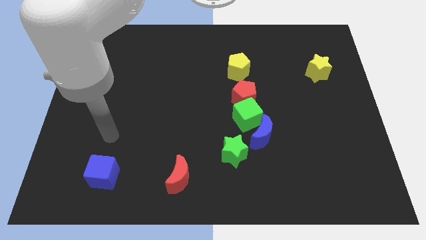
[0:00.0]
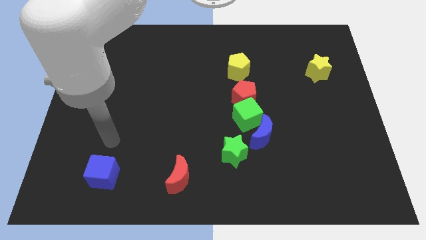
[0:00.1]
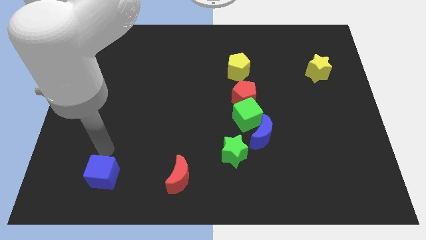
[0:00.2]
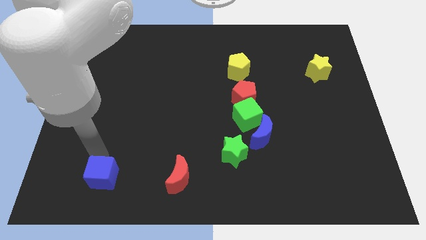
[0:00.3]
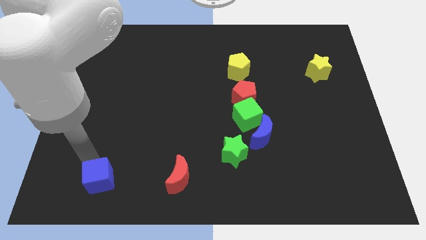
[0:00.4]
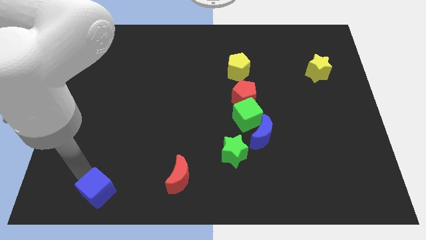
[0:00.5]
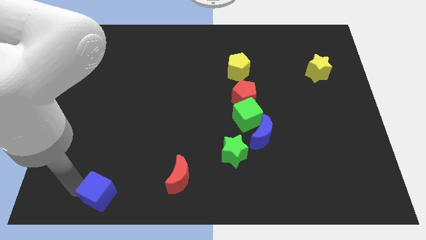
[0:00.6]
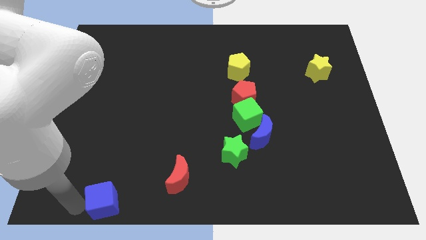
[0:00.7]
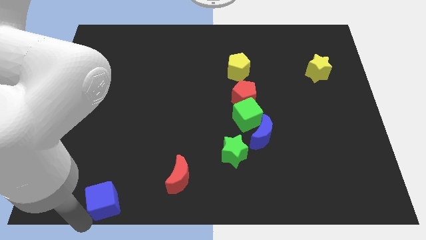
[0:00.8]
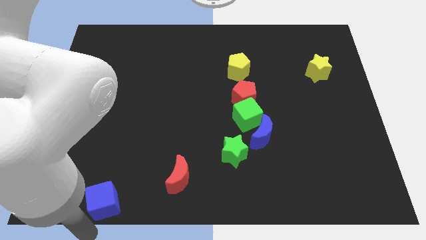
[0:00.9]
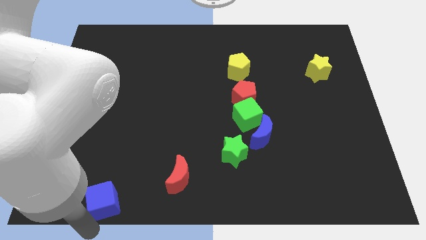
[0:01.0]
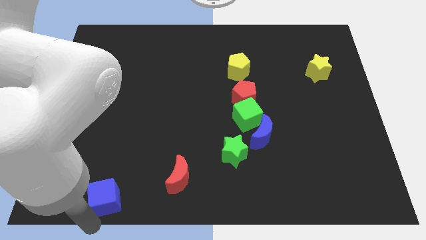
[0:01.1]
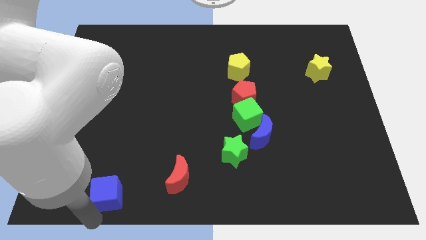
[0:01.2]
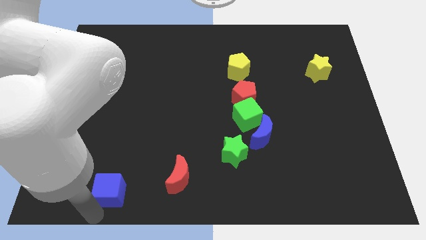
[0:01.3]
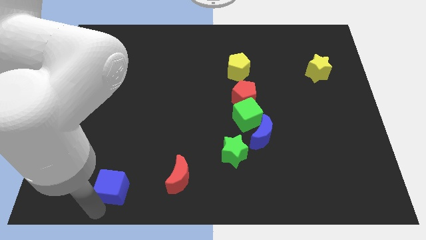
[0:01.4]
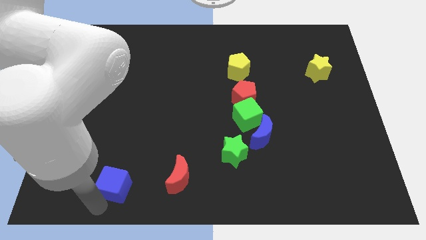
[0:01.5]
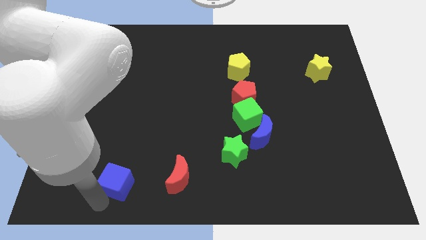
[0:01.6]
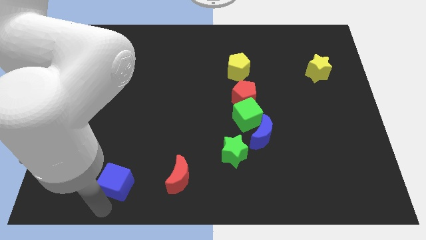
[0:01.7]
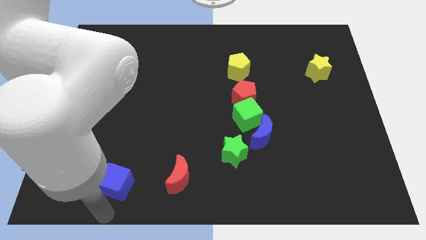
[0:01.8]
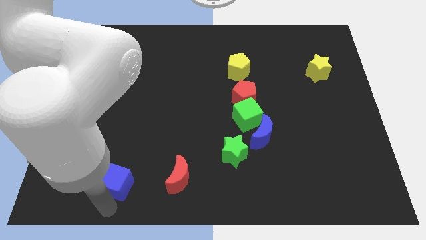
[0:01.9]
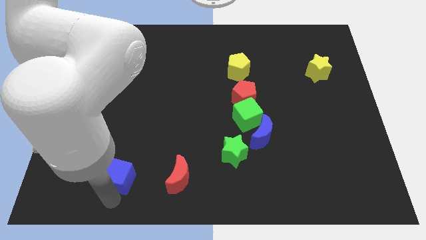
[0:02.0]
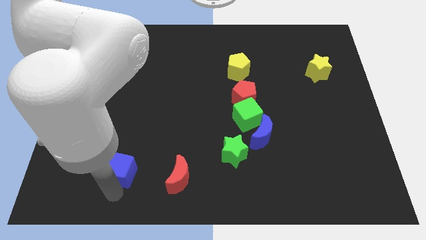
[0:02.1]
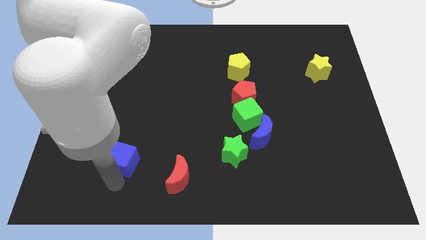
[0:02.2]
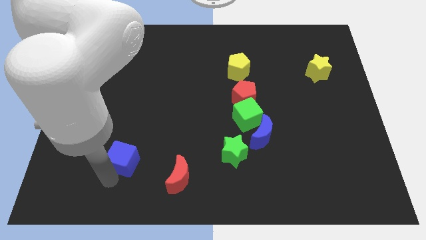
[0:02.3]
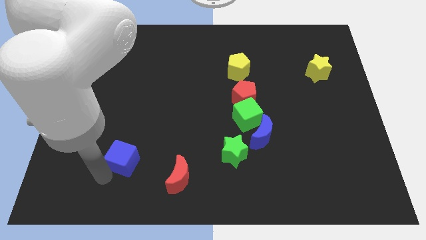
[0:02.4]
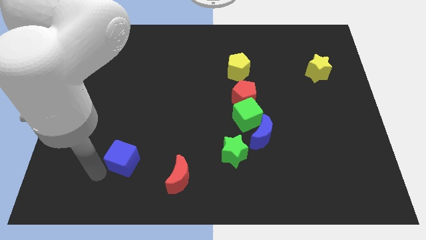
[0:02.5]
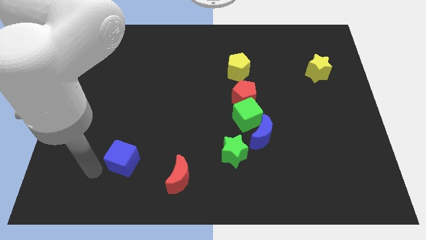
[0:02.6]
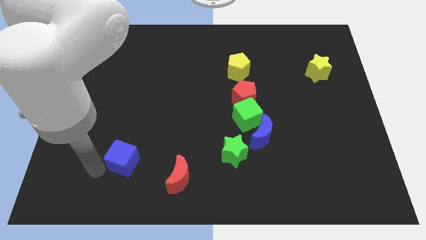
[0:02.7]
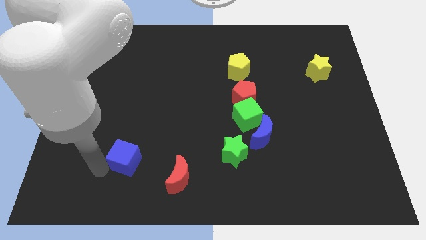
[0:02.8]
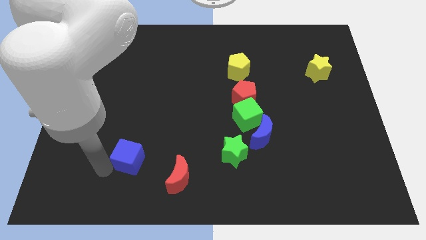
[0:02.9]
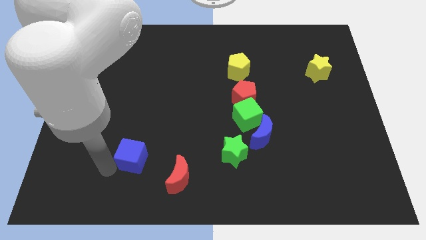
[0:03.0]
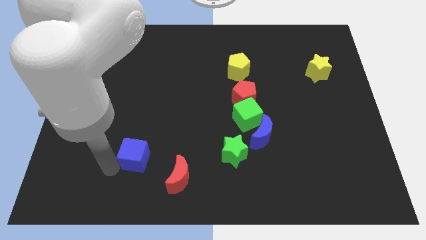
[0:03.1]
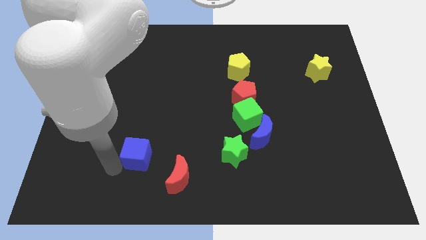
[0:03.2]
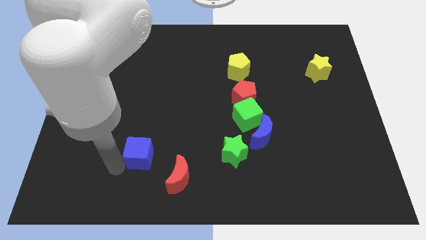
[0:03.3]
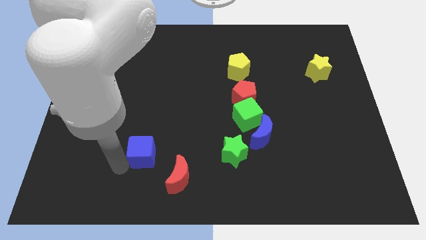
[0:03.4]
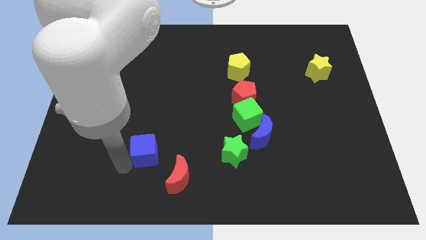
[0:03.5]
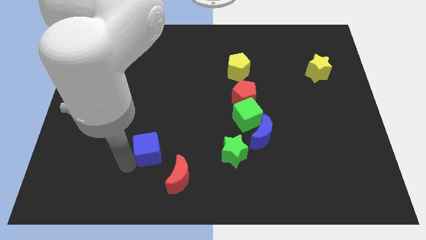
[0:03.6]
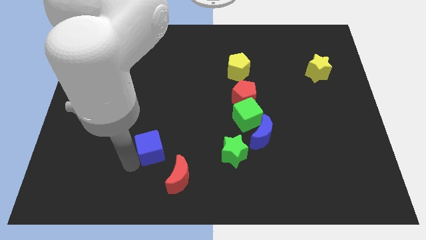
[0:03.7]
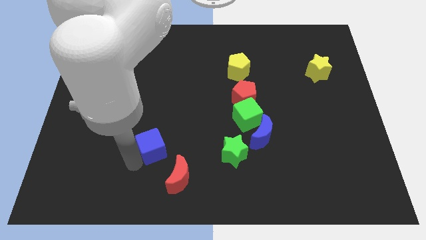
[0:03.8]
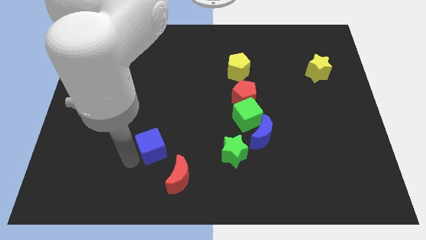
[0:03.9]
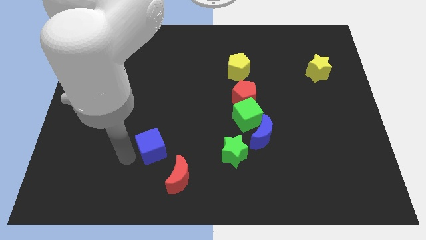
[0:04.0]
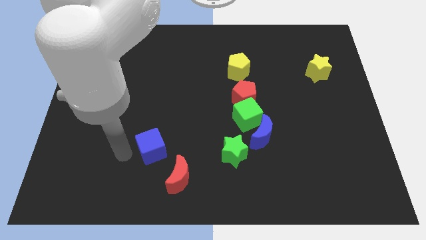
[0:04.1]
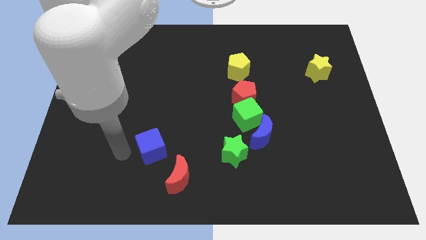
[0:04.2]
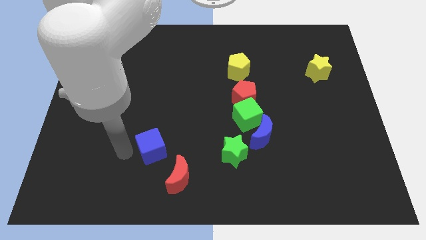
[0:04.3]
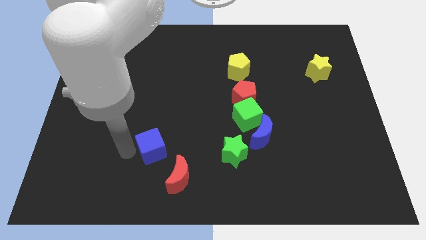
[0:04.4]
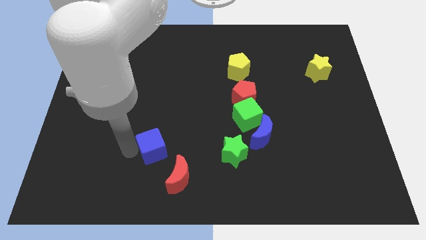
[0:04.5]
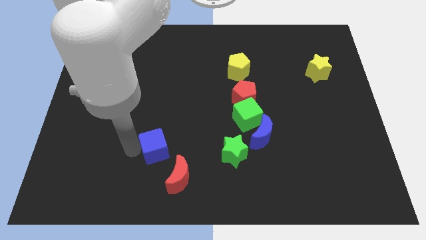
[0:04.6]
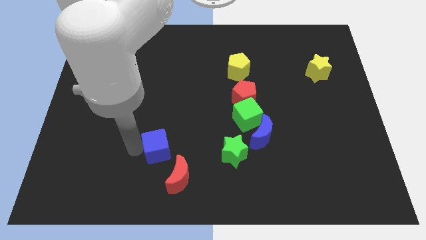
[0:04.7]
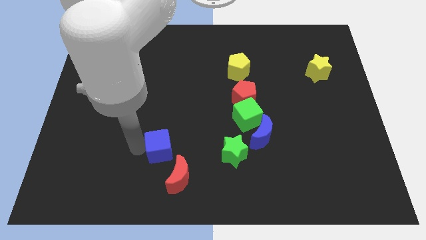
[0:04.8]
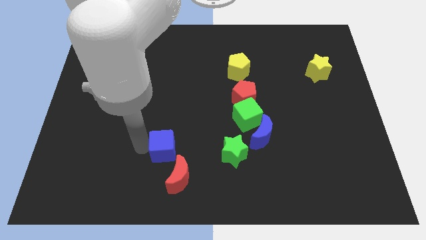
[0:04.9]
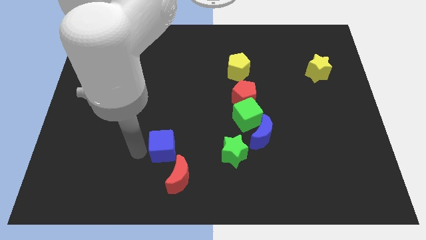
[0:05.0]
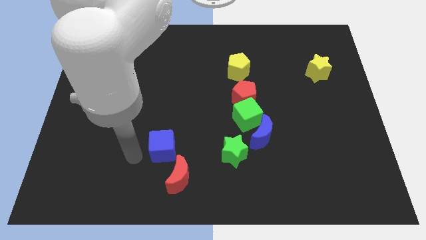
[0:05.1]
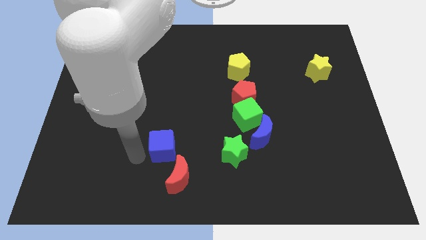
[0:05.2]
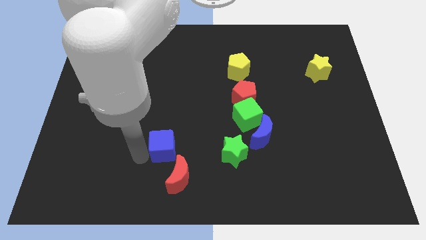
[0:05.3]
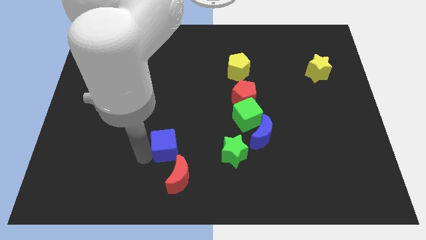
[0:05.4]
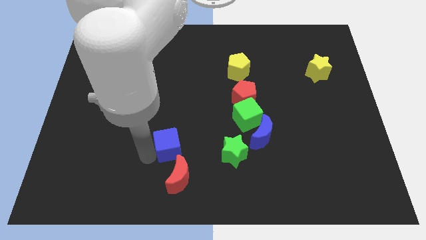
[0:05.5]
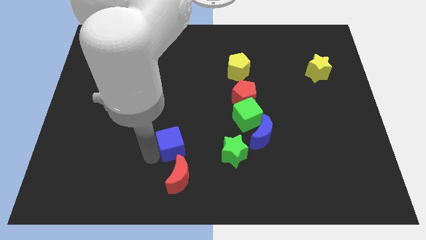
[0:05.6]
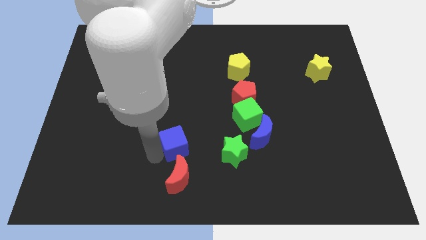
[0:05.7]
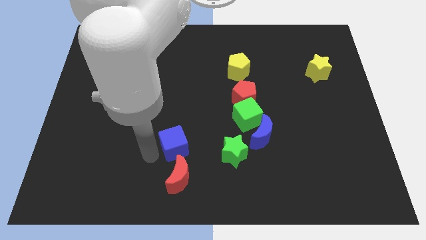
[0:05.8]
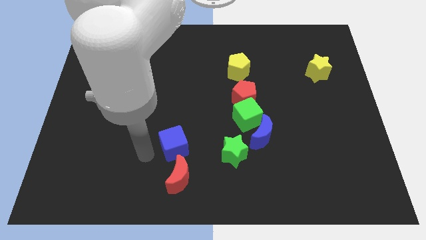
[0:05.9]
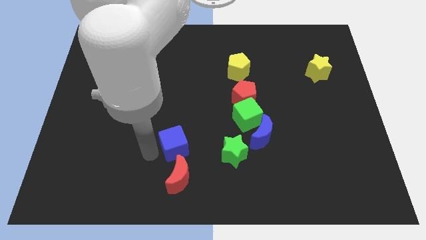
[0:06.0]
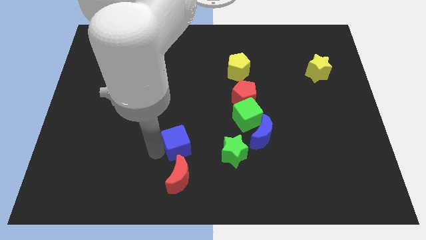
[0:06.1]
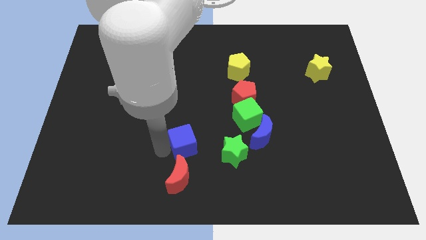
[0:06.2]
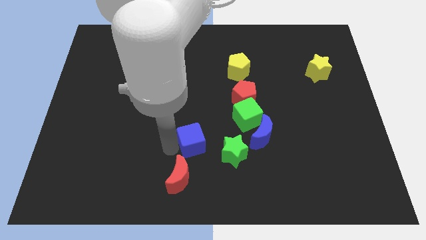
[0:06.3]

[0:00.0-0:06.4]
put the blue cube just left of the blue moon

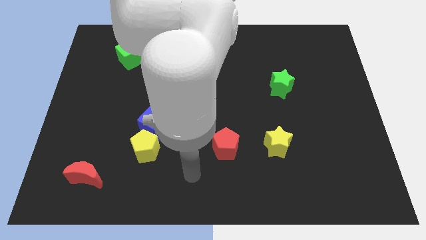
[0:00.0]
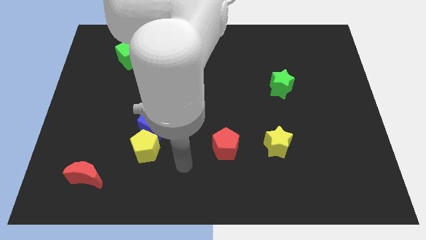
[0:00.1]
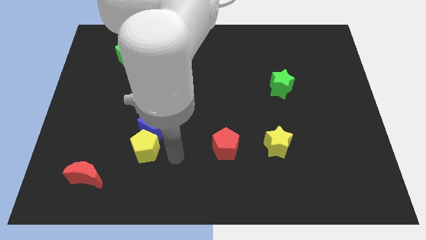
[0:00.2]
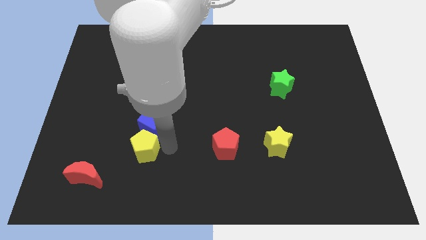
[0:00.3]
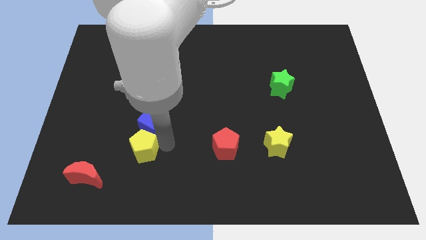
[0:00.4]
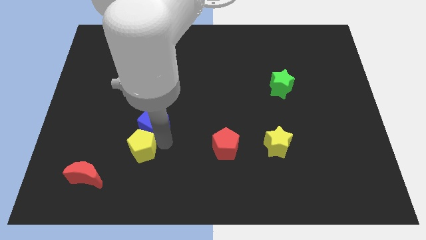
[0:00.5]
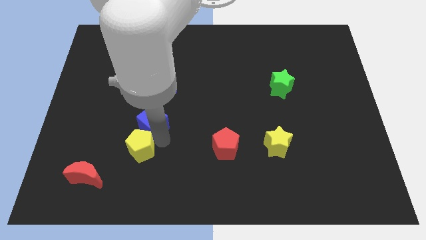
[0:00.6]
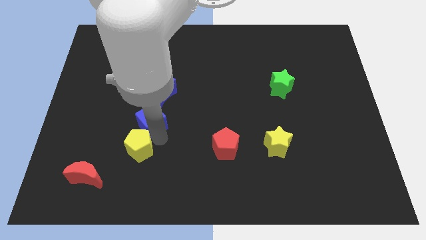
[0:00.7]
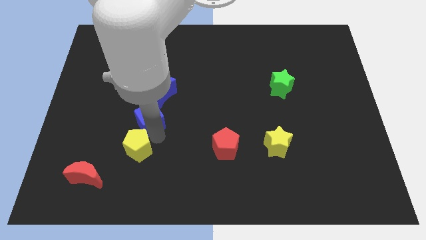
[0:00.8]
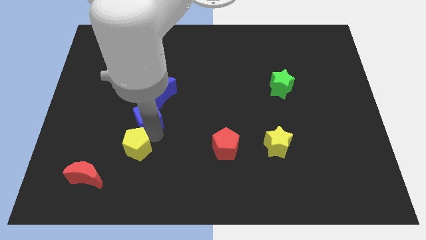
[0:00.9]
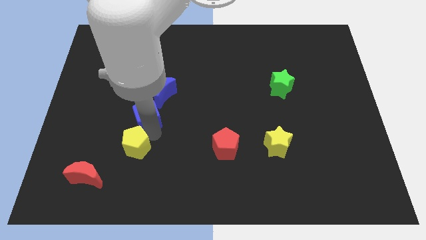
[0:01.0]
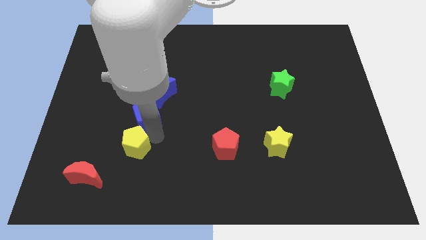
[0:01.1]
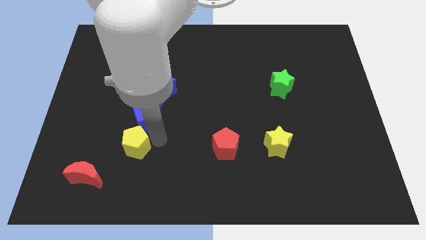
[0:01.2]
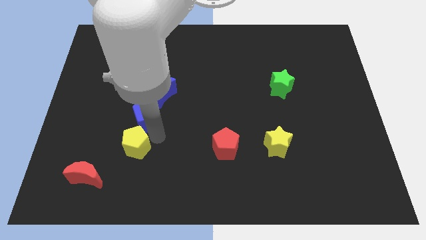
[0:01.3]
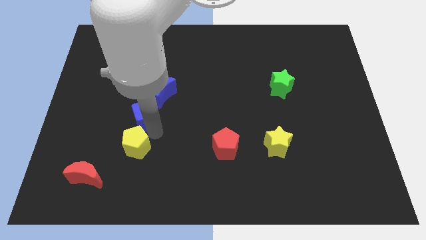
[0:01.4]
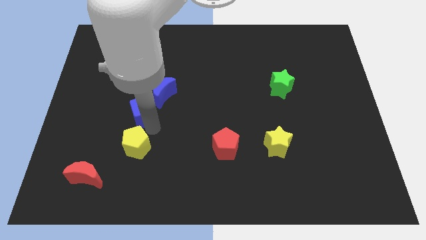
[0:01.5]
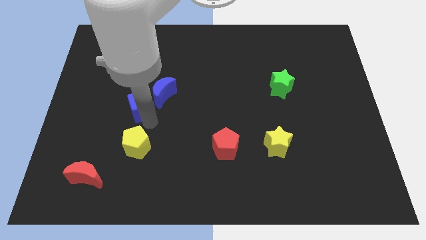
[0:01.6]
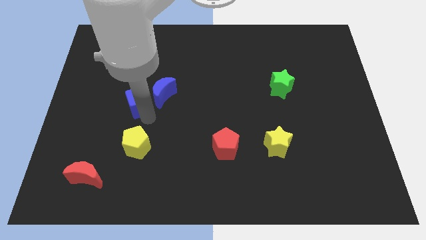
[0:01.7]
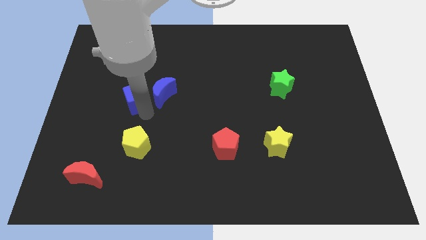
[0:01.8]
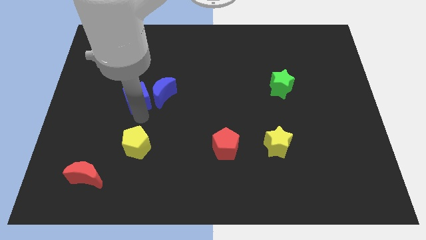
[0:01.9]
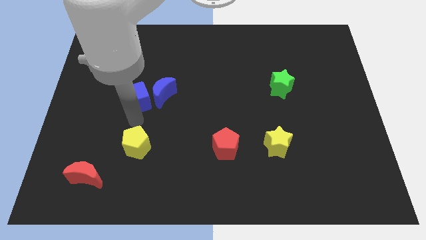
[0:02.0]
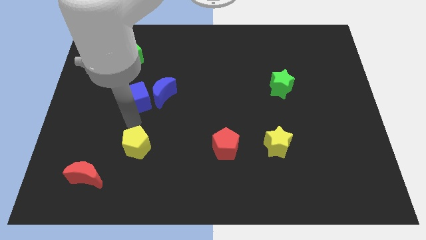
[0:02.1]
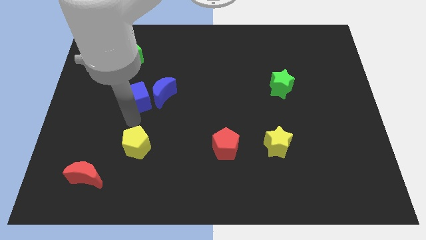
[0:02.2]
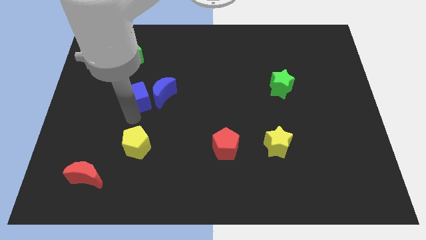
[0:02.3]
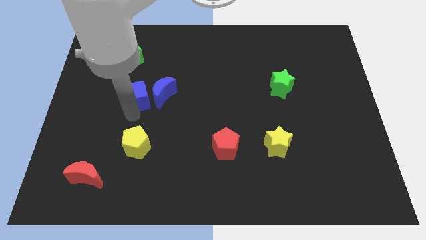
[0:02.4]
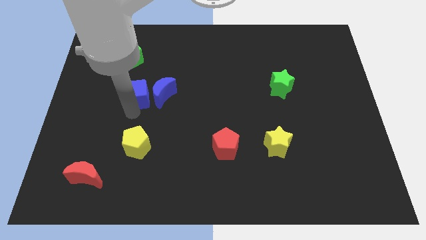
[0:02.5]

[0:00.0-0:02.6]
push the blue cube diagonally up and to the left of the blue moon
